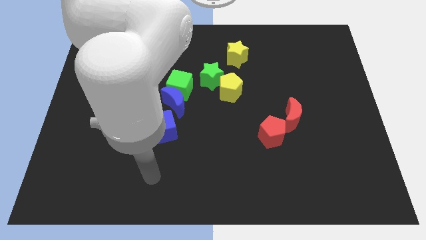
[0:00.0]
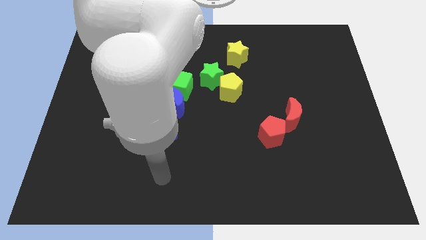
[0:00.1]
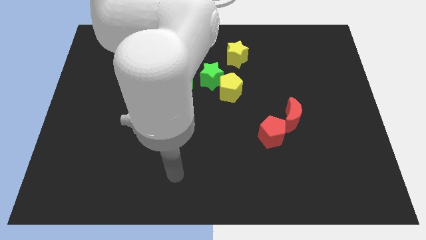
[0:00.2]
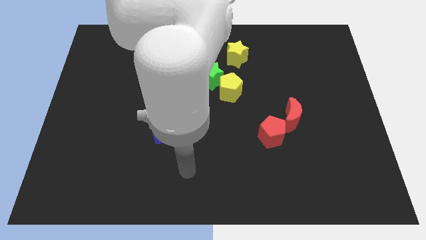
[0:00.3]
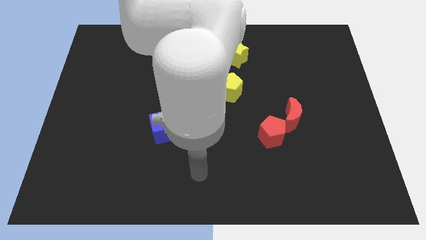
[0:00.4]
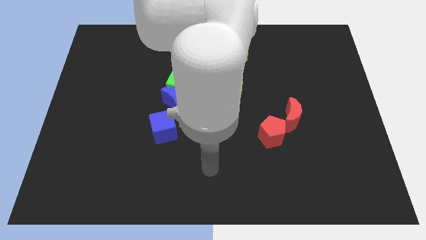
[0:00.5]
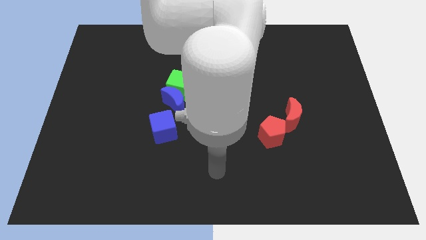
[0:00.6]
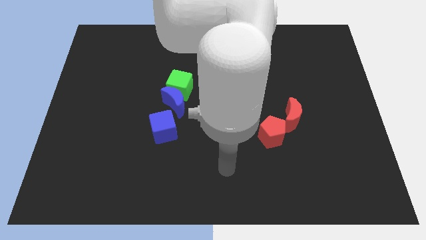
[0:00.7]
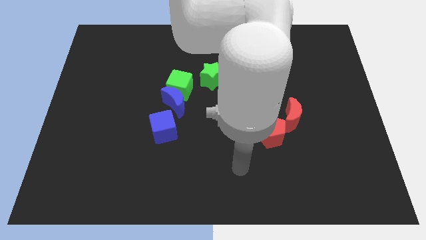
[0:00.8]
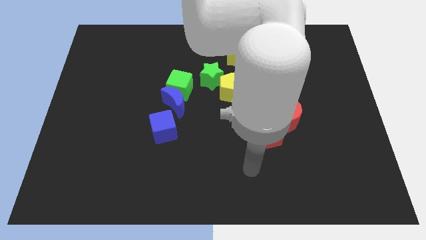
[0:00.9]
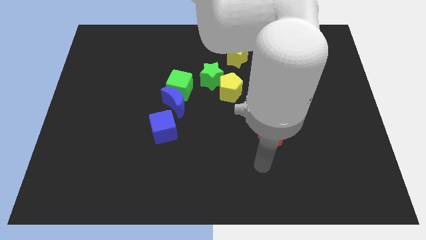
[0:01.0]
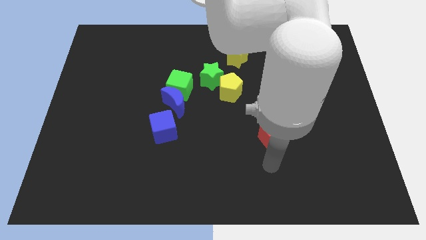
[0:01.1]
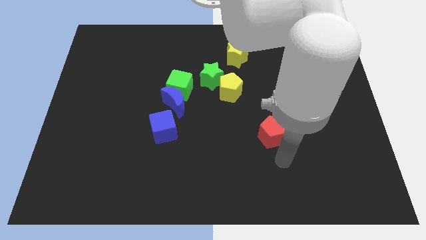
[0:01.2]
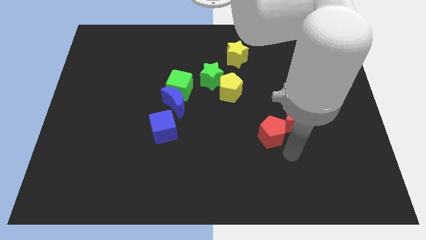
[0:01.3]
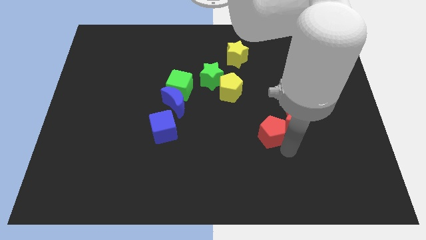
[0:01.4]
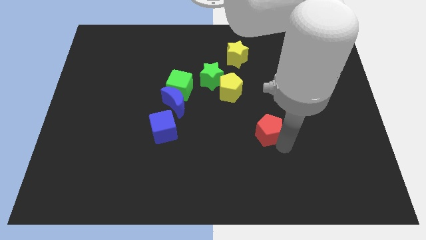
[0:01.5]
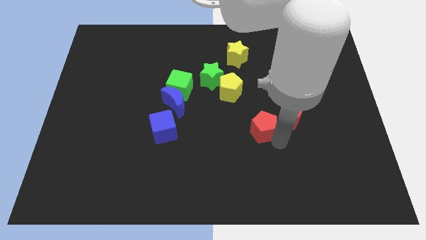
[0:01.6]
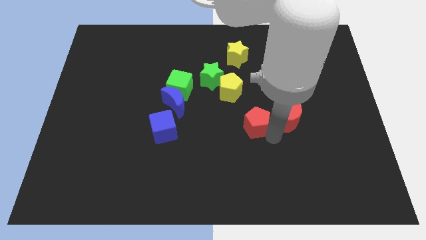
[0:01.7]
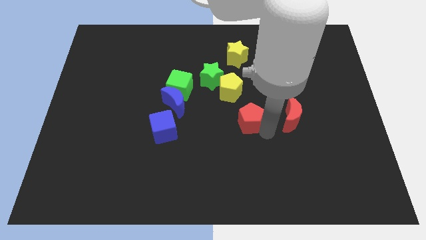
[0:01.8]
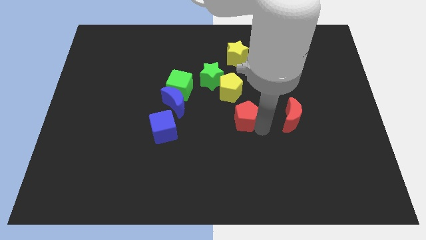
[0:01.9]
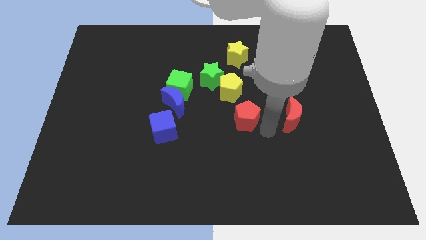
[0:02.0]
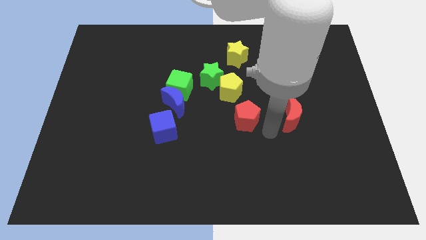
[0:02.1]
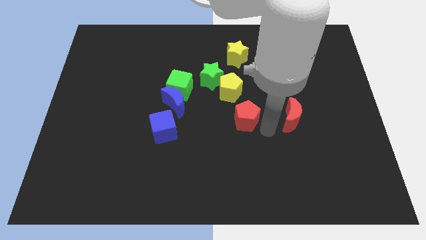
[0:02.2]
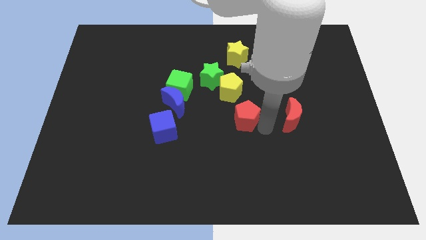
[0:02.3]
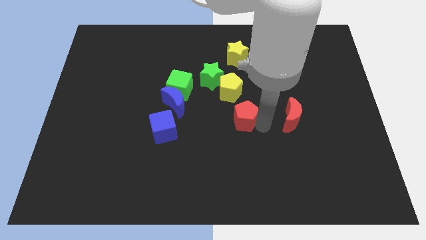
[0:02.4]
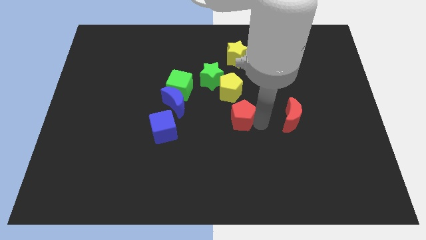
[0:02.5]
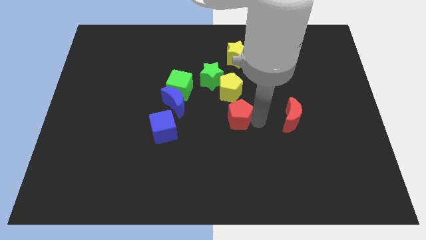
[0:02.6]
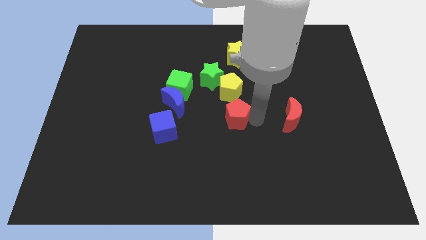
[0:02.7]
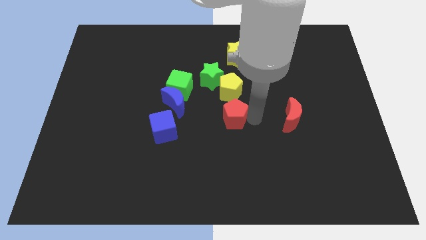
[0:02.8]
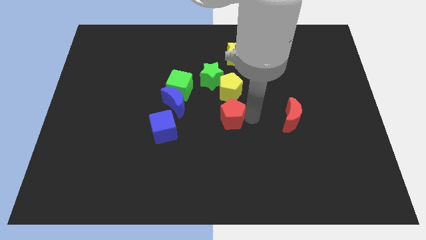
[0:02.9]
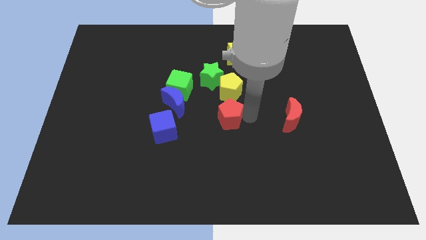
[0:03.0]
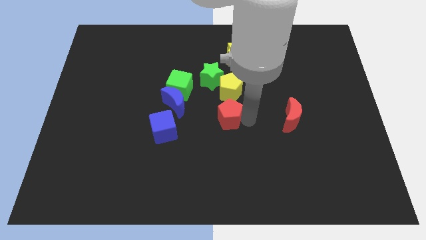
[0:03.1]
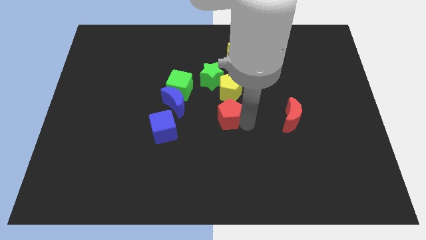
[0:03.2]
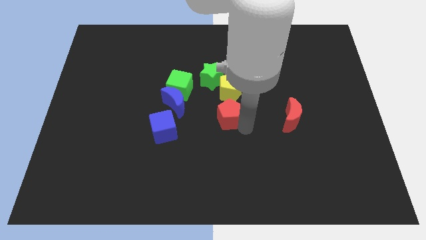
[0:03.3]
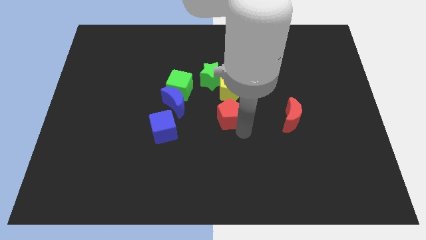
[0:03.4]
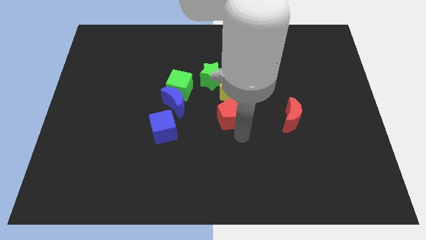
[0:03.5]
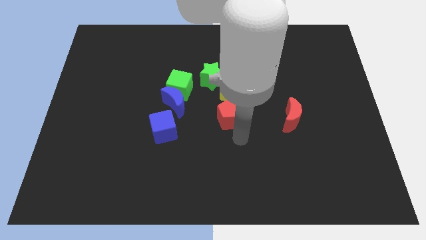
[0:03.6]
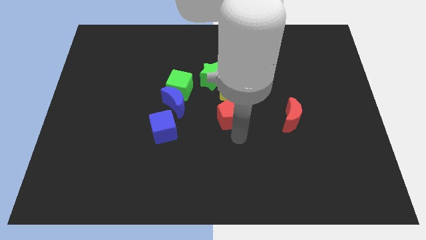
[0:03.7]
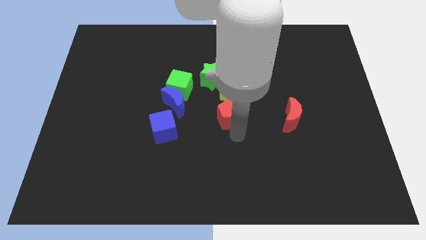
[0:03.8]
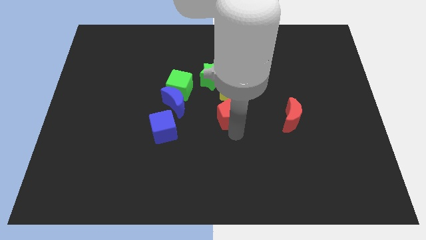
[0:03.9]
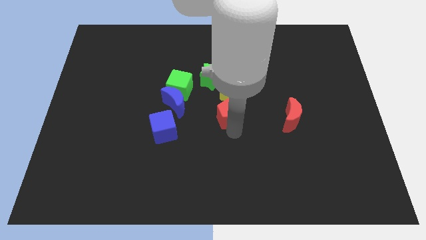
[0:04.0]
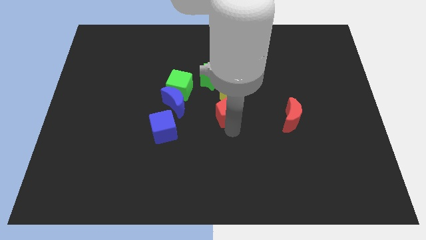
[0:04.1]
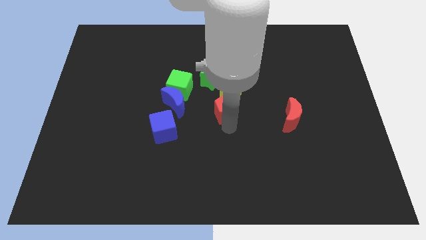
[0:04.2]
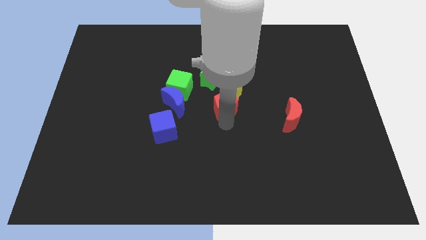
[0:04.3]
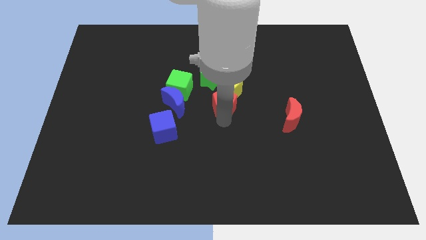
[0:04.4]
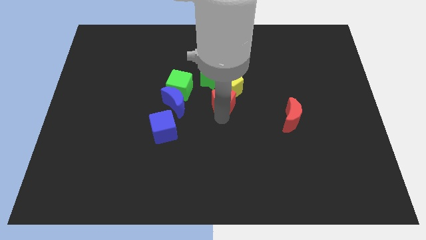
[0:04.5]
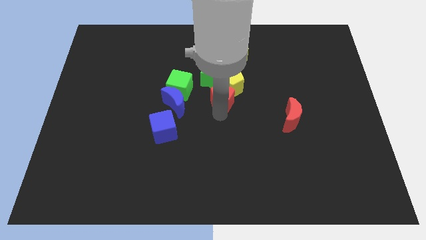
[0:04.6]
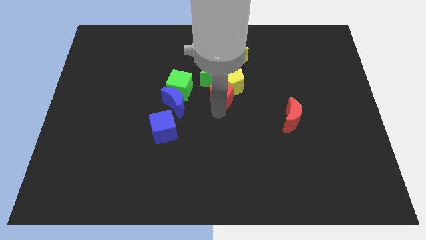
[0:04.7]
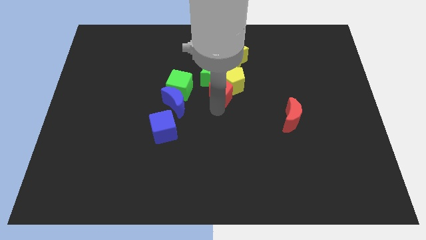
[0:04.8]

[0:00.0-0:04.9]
put the red pentagon next to the green star

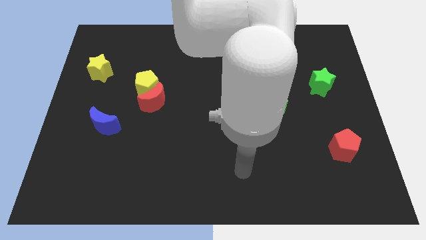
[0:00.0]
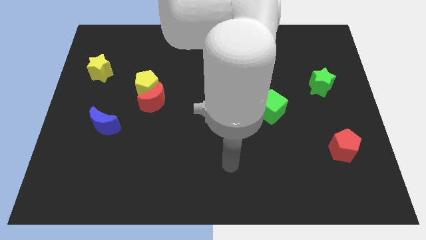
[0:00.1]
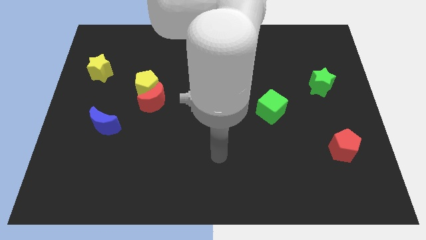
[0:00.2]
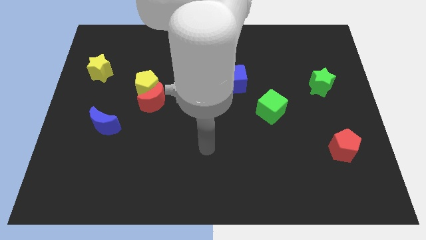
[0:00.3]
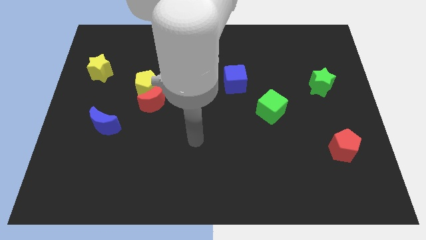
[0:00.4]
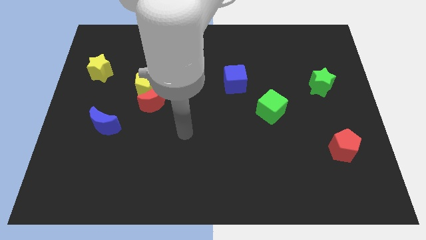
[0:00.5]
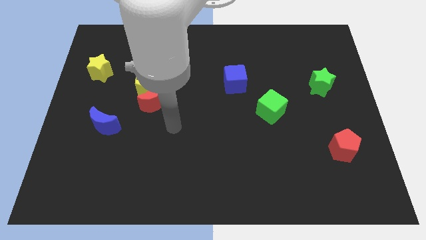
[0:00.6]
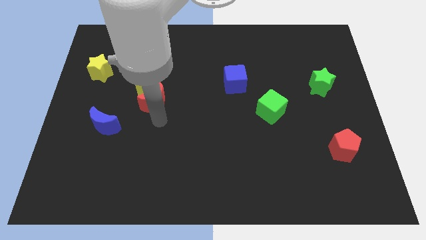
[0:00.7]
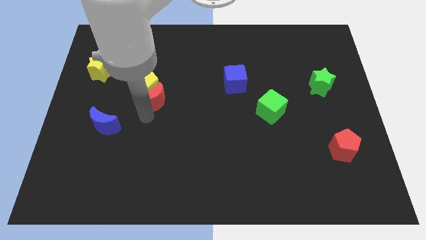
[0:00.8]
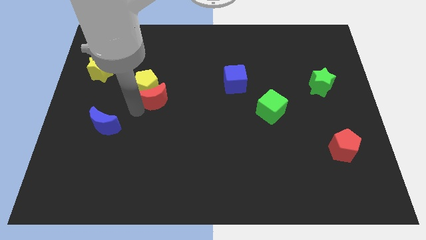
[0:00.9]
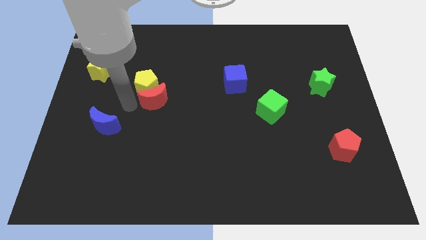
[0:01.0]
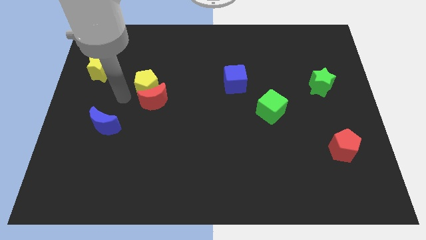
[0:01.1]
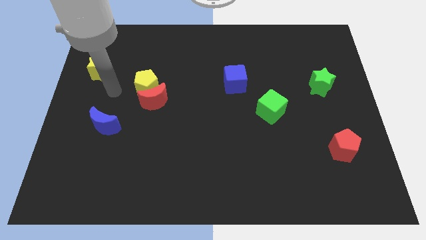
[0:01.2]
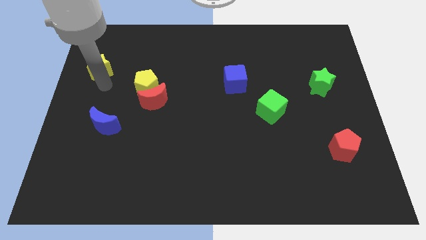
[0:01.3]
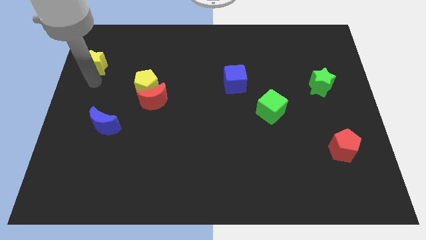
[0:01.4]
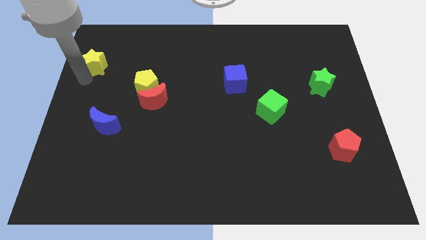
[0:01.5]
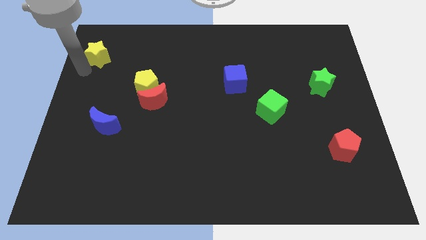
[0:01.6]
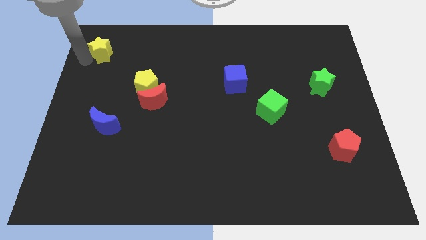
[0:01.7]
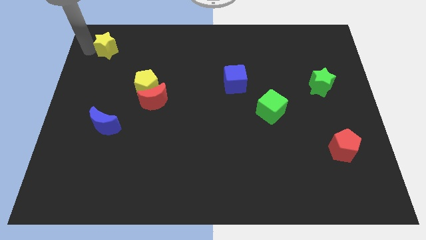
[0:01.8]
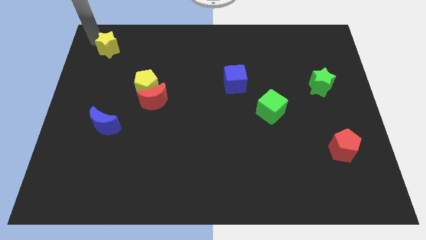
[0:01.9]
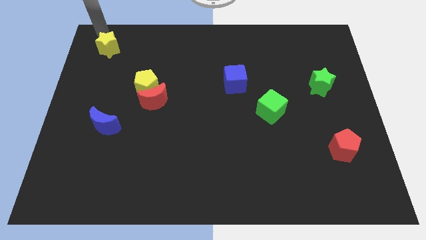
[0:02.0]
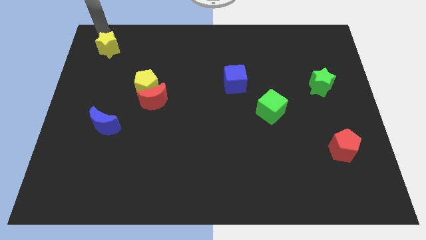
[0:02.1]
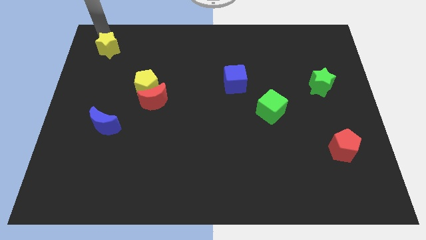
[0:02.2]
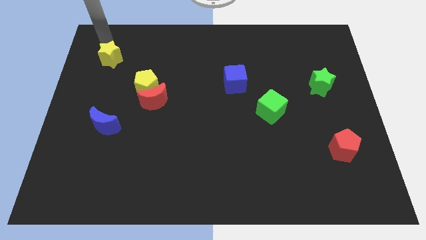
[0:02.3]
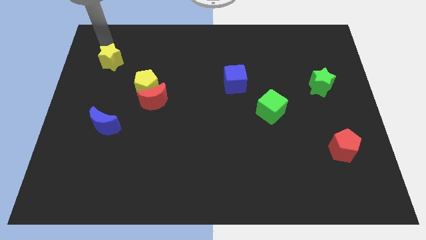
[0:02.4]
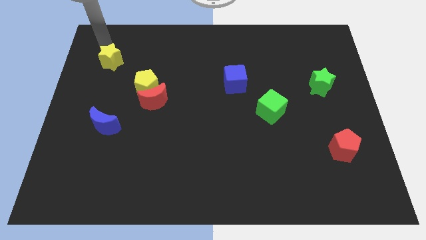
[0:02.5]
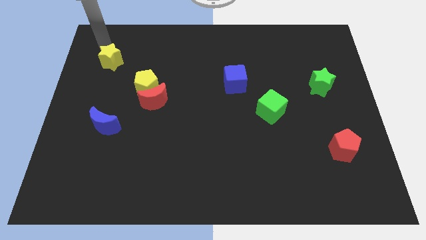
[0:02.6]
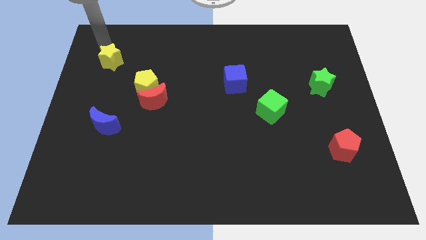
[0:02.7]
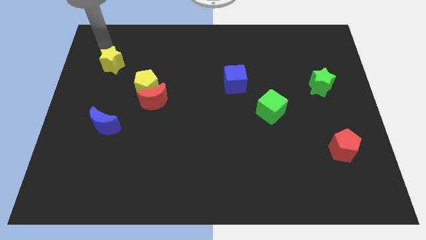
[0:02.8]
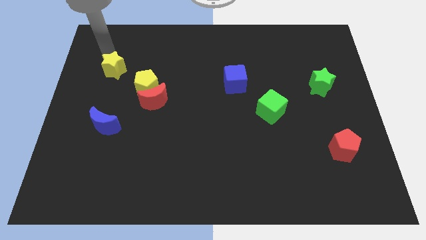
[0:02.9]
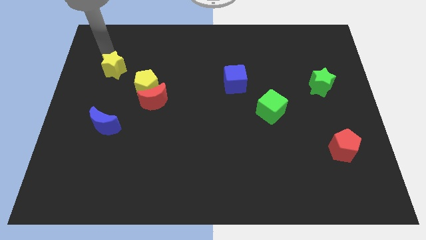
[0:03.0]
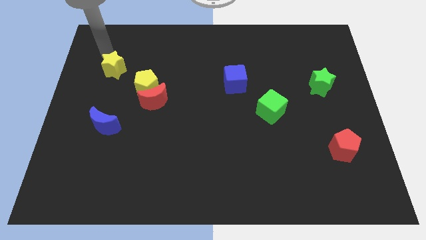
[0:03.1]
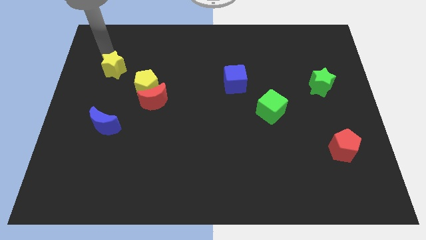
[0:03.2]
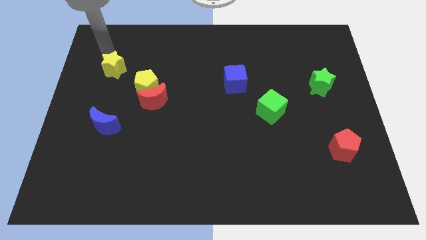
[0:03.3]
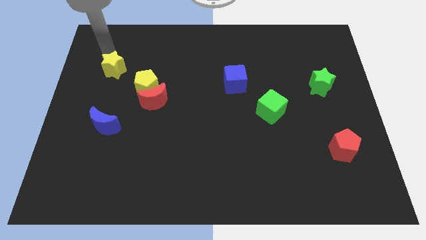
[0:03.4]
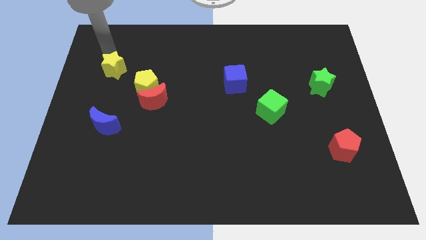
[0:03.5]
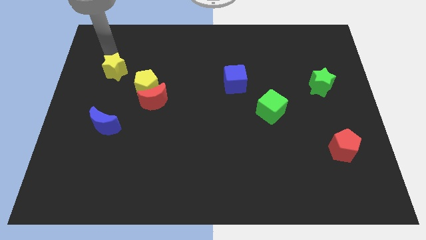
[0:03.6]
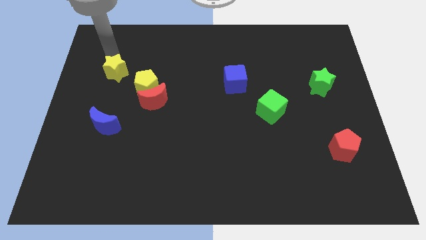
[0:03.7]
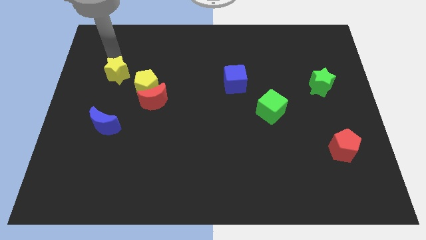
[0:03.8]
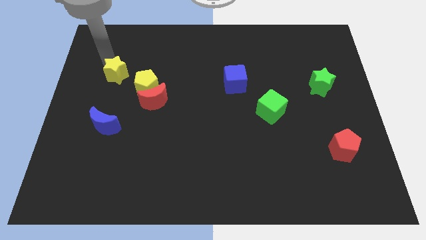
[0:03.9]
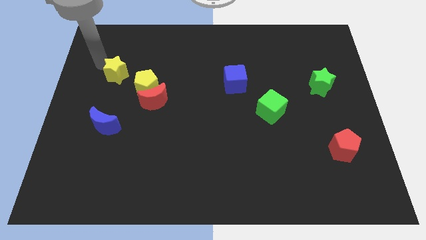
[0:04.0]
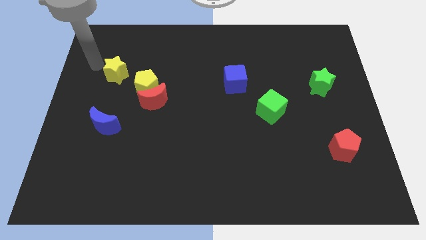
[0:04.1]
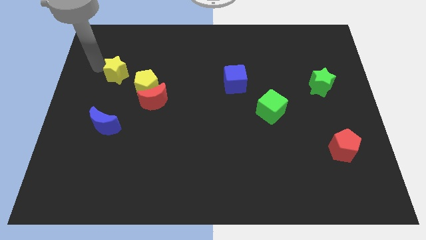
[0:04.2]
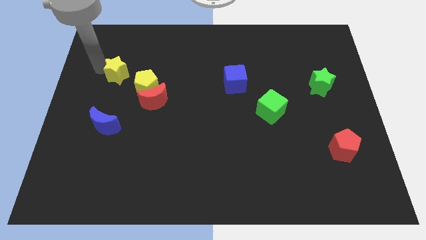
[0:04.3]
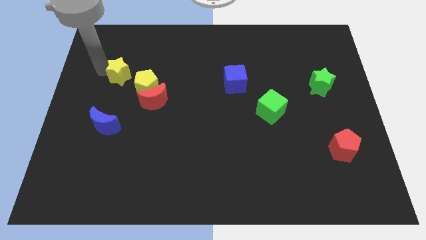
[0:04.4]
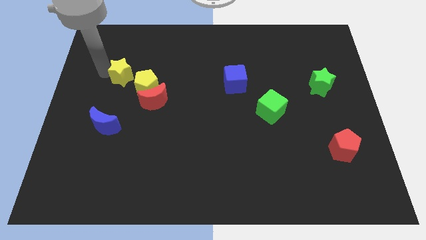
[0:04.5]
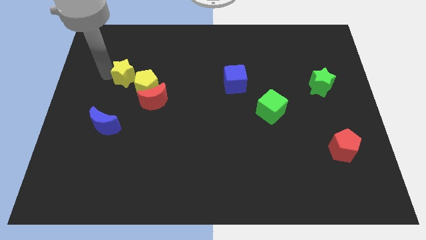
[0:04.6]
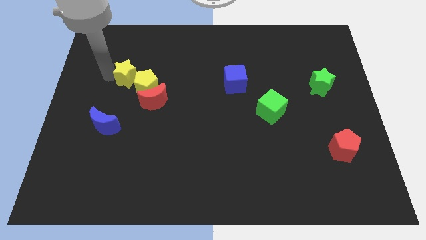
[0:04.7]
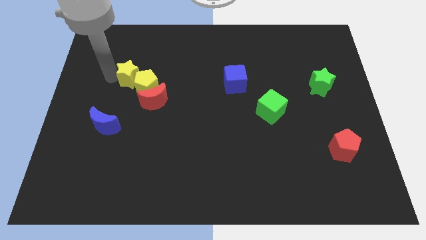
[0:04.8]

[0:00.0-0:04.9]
move the yellow star towards the yellow pentagon
